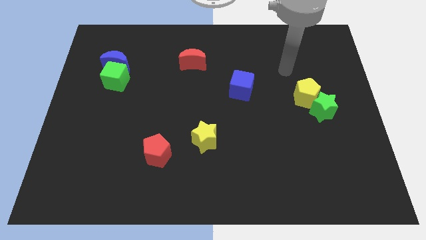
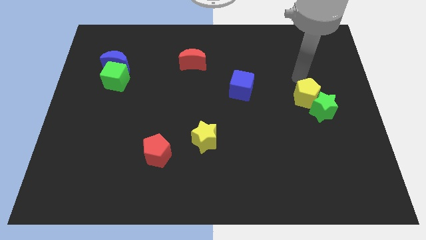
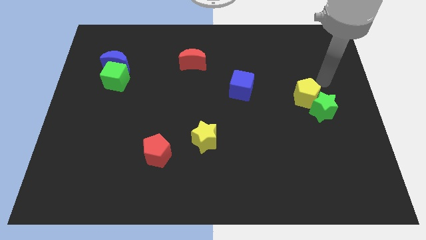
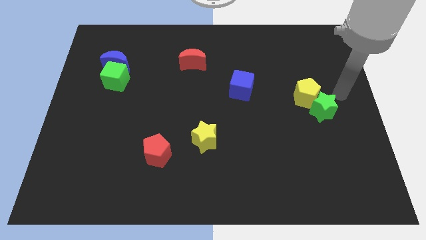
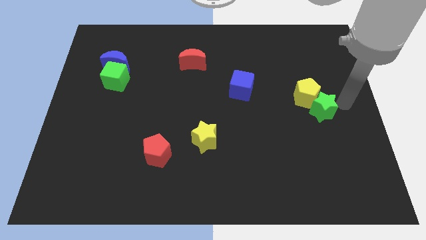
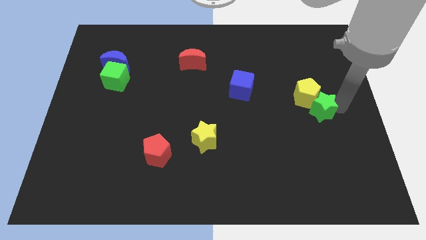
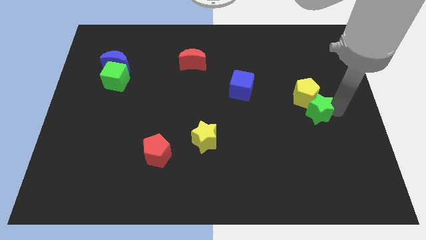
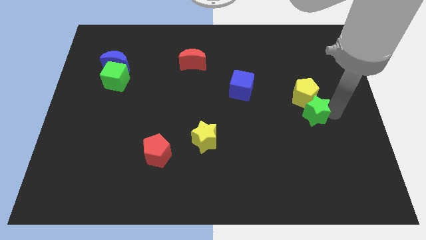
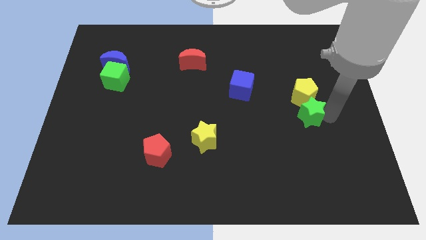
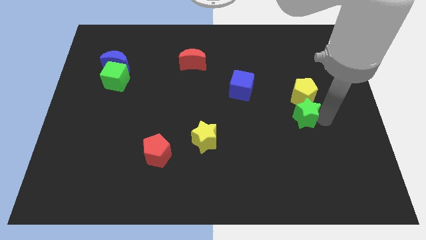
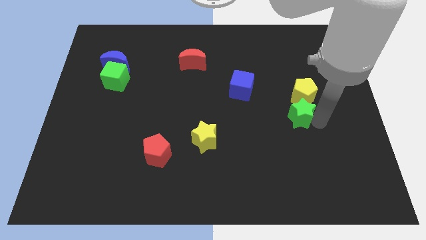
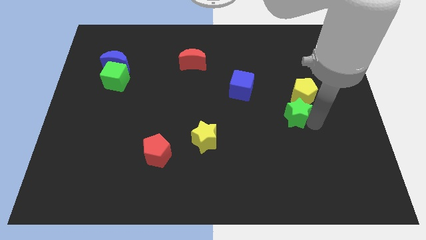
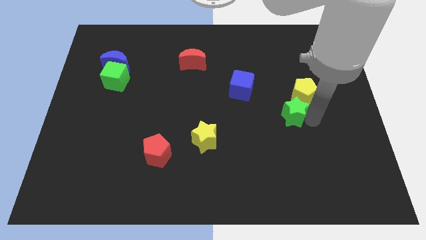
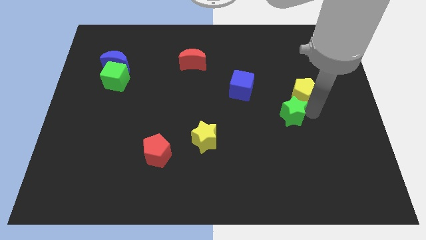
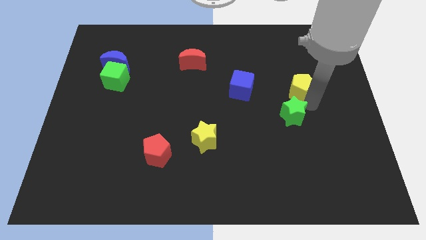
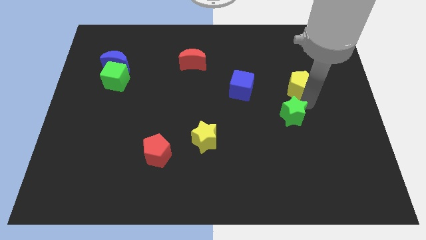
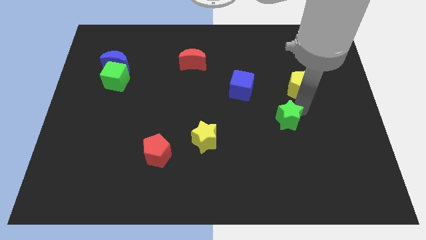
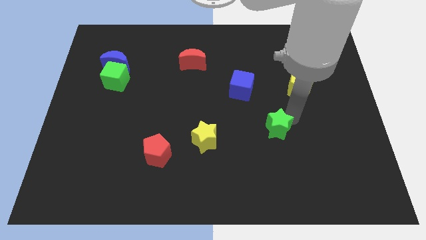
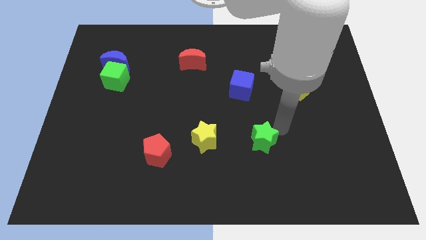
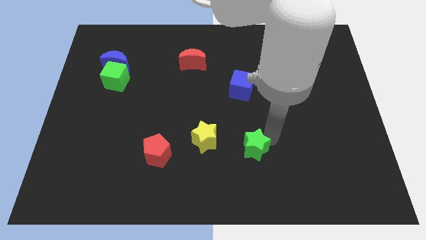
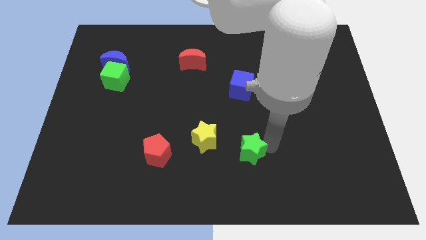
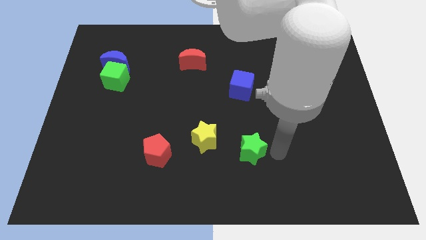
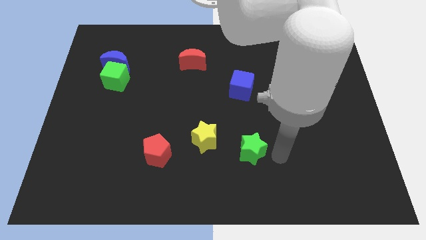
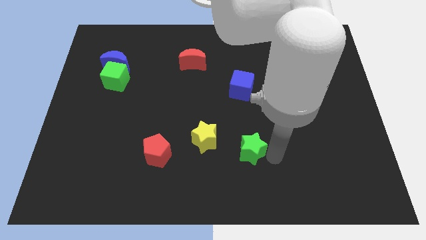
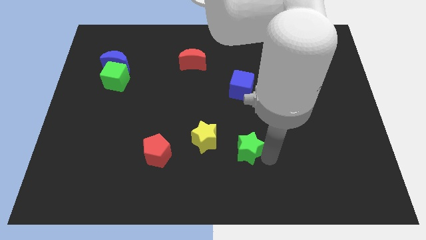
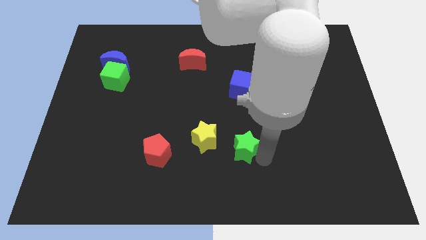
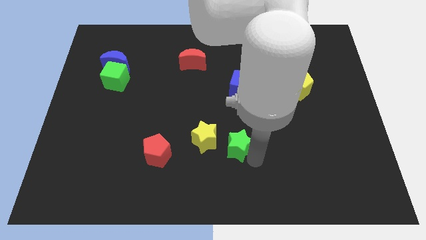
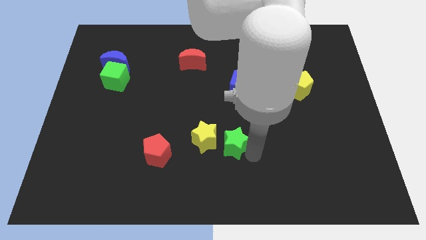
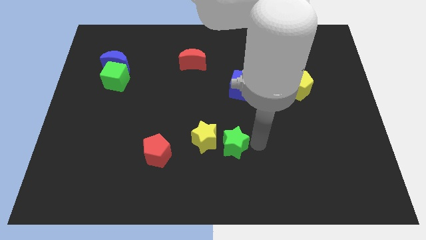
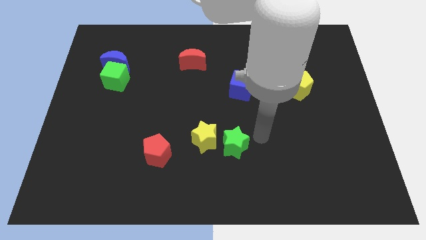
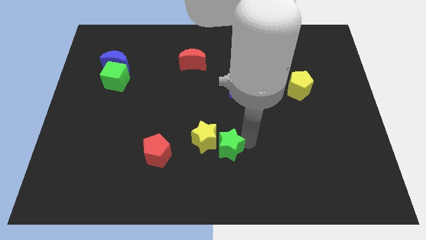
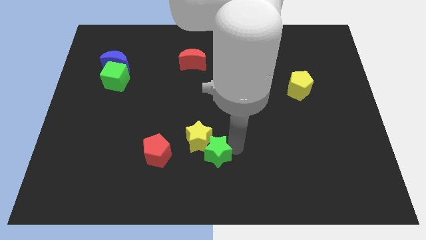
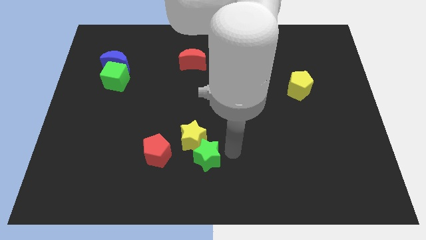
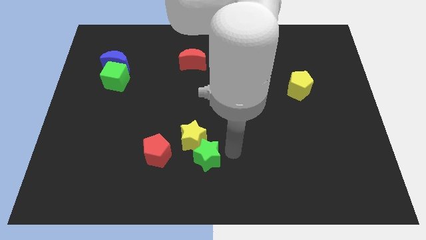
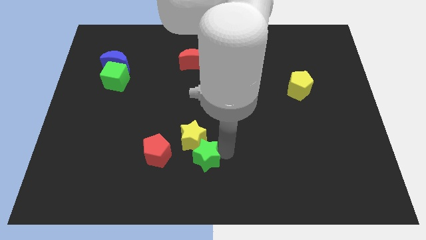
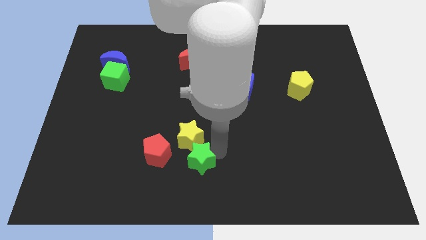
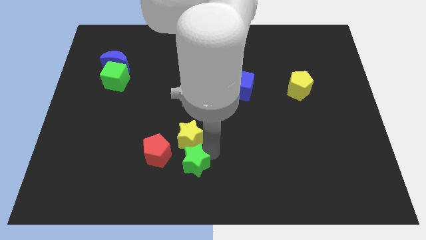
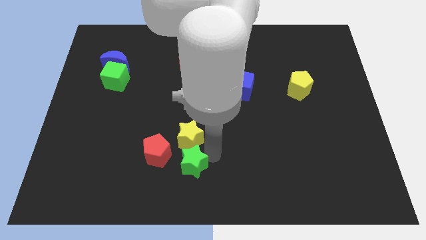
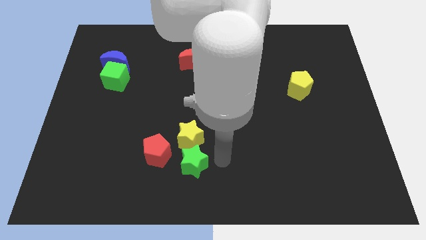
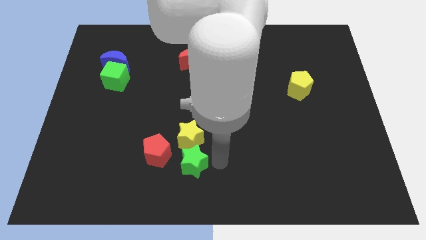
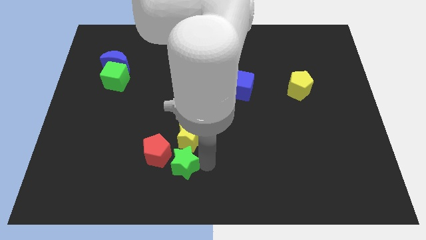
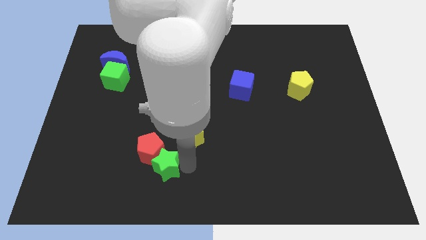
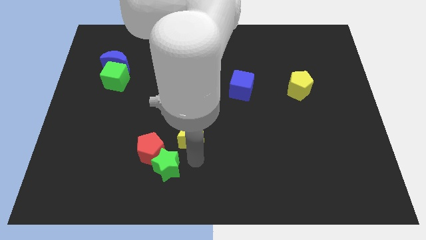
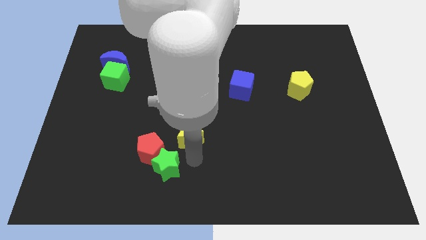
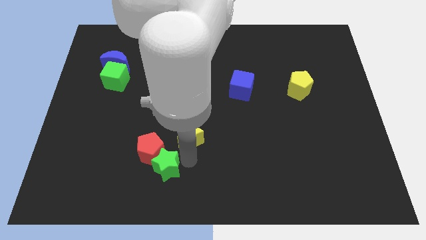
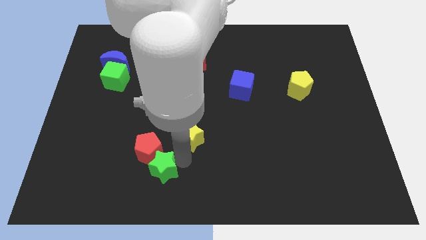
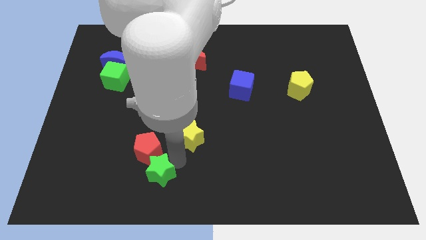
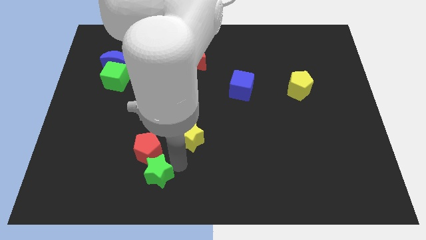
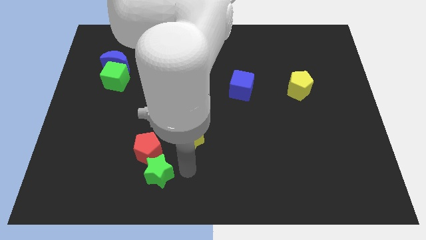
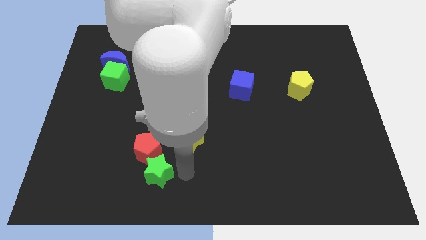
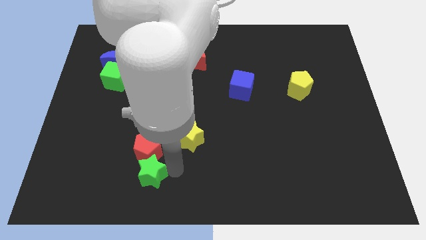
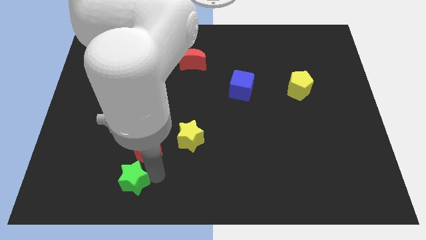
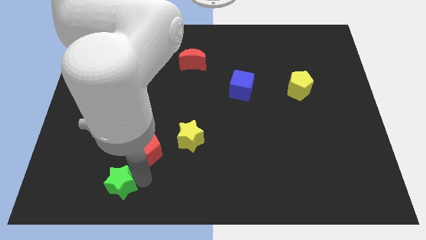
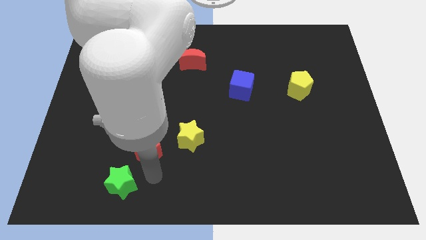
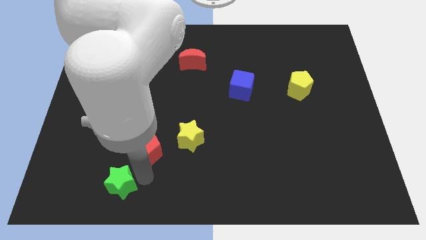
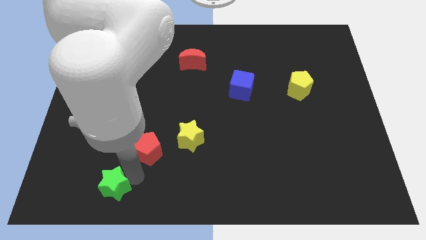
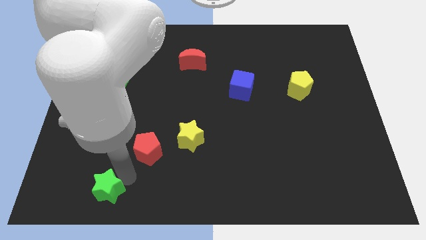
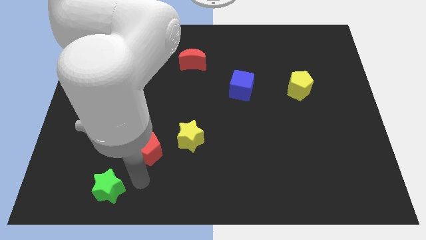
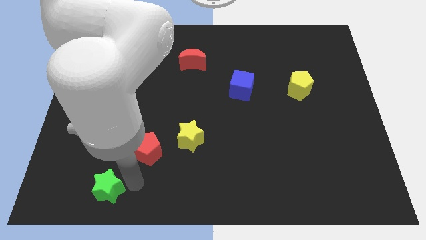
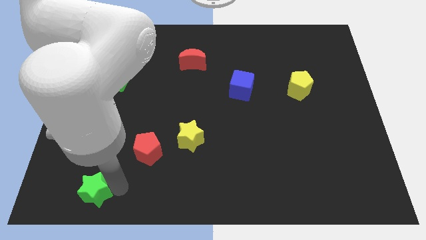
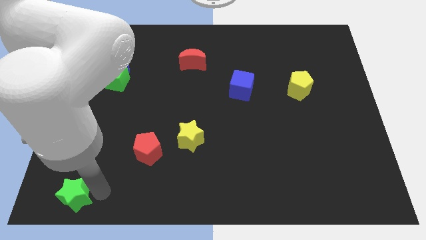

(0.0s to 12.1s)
move the green star to the bottom left corner
